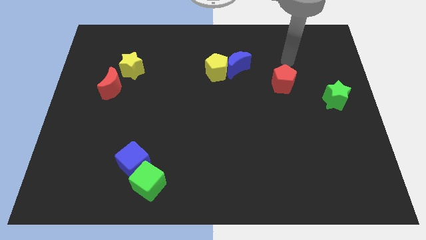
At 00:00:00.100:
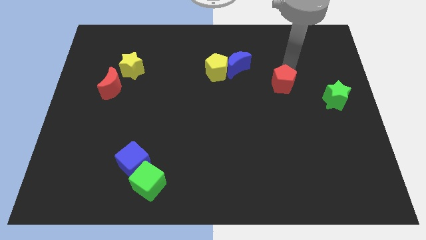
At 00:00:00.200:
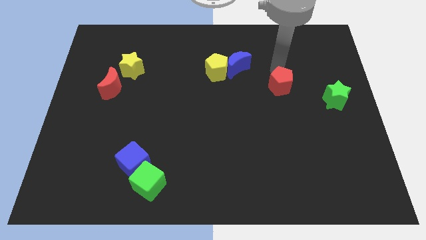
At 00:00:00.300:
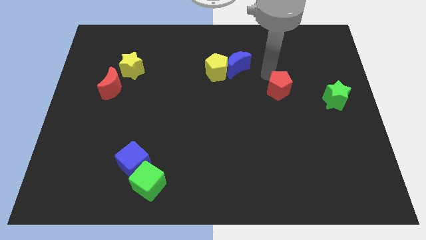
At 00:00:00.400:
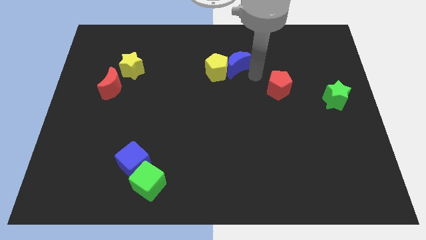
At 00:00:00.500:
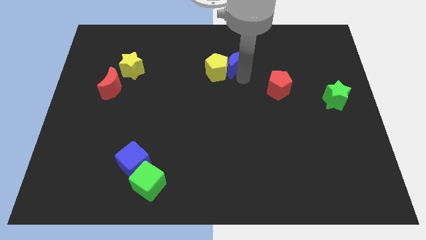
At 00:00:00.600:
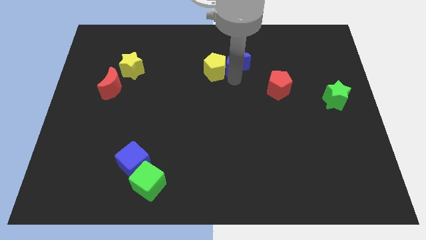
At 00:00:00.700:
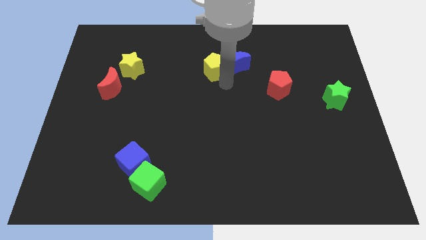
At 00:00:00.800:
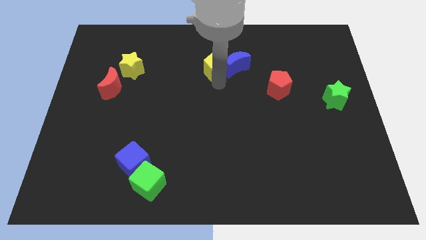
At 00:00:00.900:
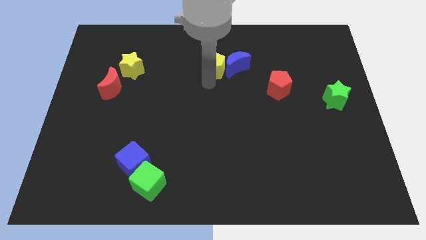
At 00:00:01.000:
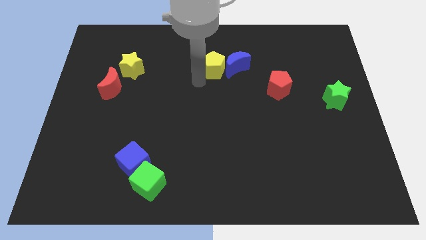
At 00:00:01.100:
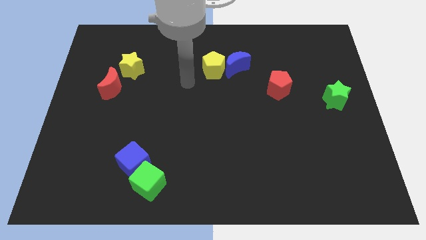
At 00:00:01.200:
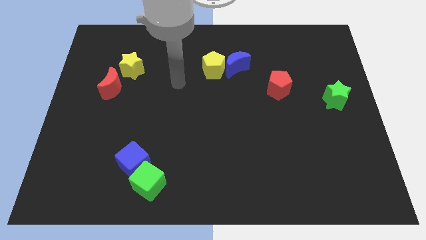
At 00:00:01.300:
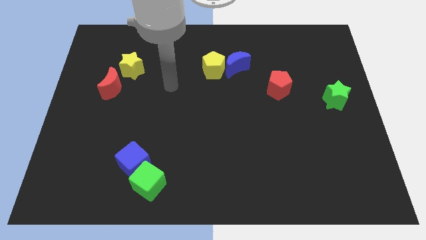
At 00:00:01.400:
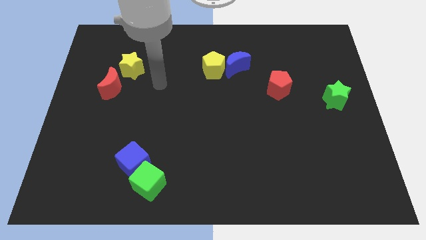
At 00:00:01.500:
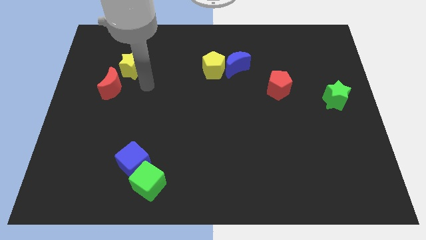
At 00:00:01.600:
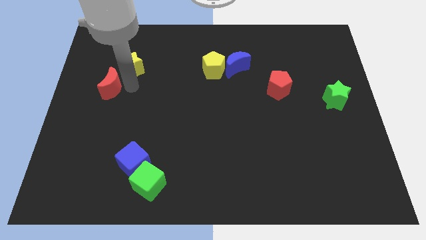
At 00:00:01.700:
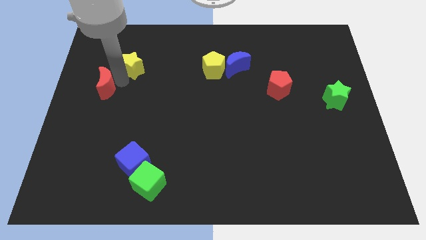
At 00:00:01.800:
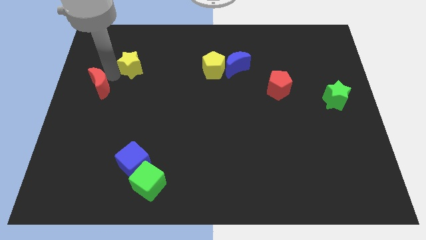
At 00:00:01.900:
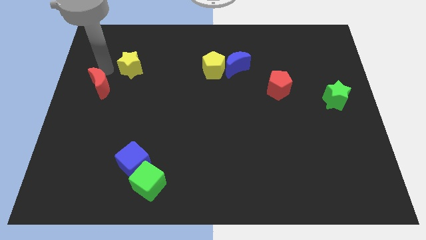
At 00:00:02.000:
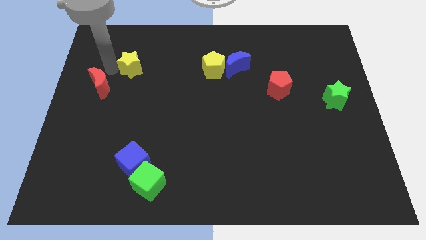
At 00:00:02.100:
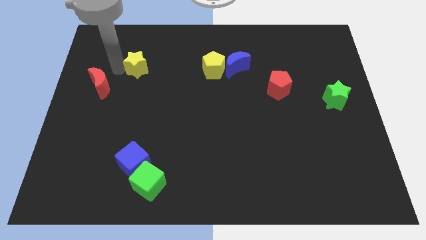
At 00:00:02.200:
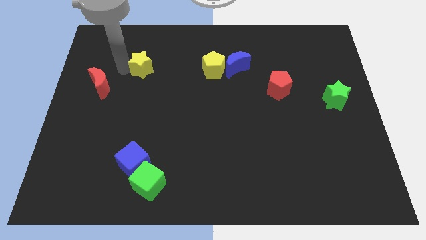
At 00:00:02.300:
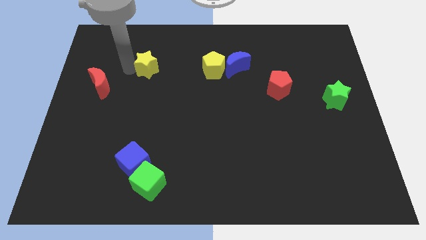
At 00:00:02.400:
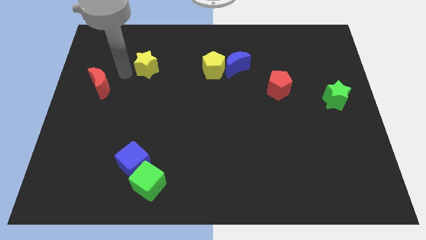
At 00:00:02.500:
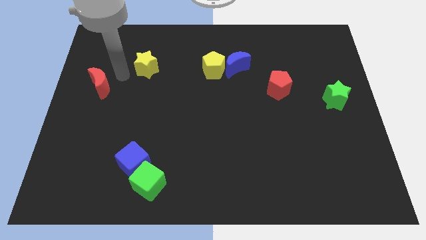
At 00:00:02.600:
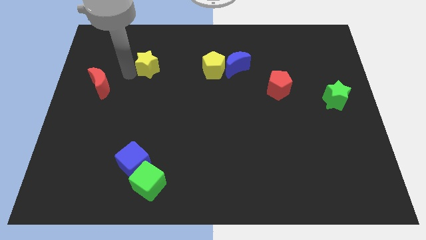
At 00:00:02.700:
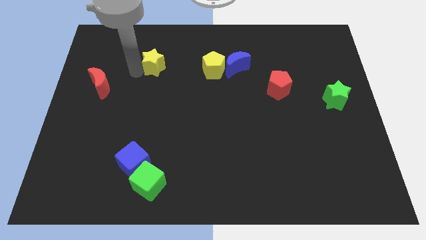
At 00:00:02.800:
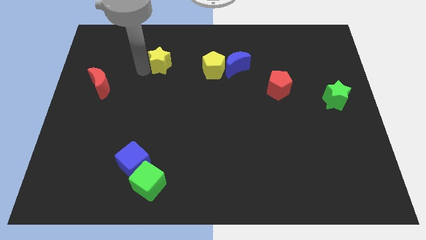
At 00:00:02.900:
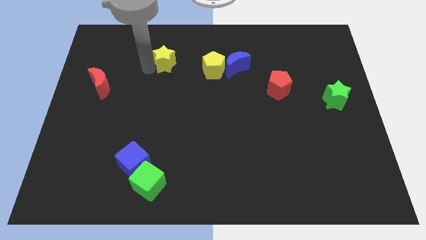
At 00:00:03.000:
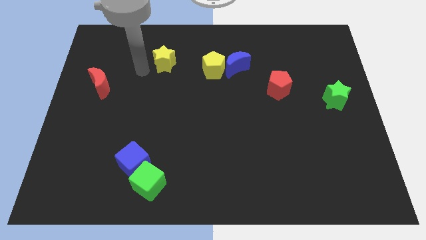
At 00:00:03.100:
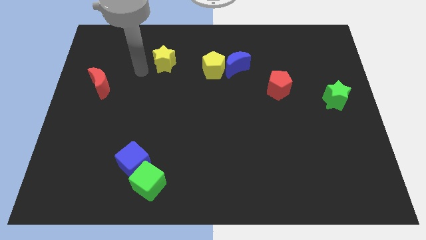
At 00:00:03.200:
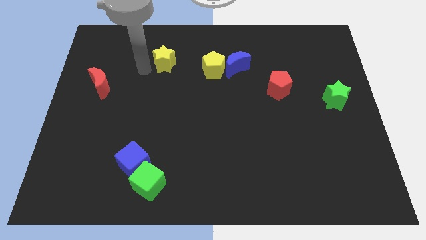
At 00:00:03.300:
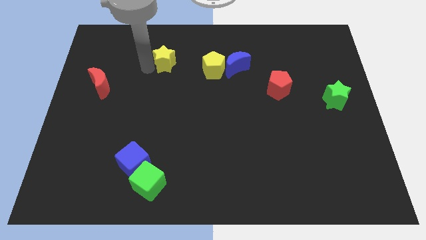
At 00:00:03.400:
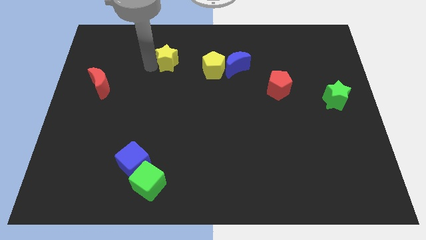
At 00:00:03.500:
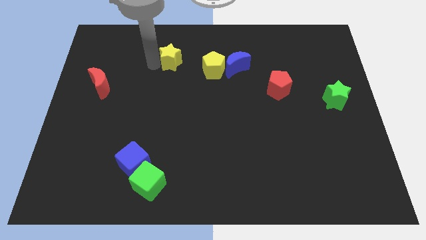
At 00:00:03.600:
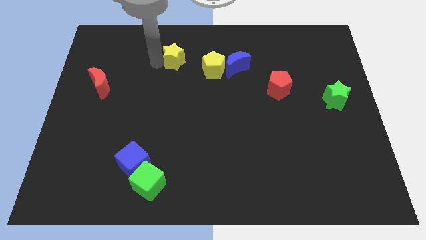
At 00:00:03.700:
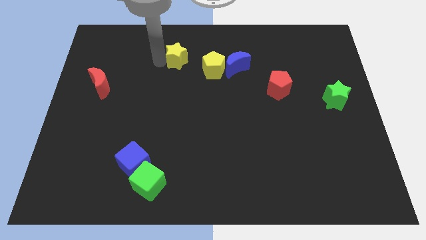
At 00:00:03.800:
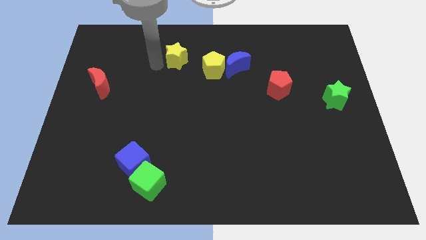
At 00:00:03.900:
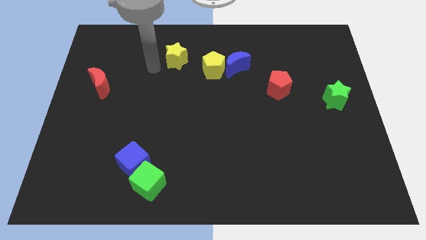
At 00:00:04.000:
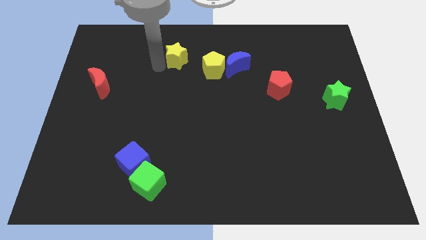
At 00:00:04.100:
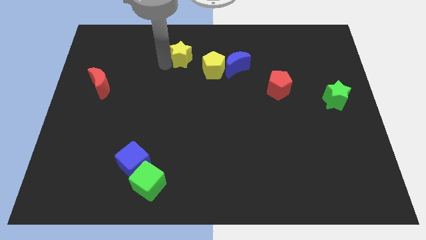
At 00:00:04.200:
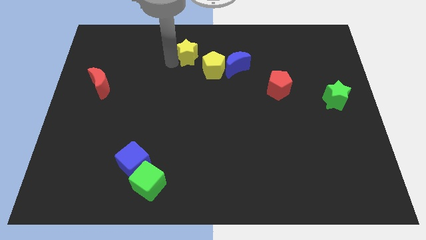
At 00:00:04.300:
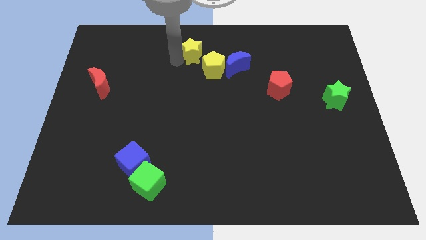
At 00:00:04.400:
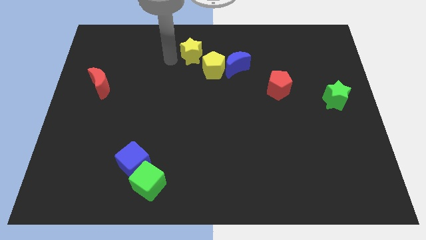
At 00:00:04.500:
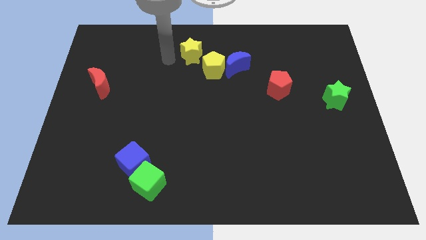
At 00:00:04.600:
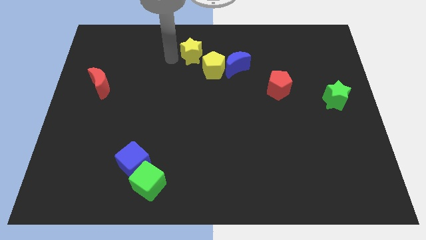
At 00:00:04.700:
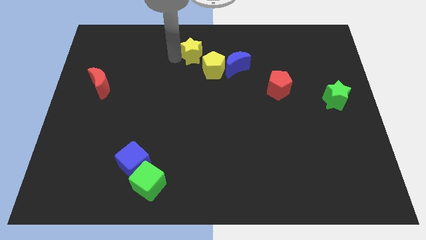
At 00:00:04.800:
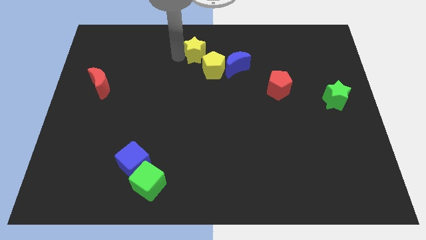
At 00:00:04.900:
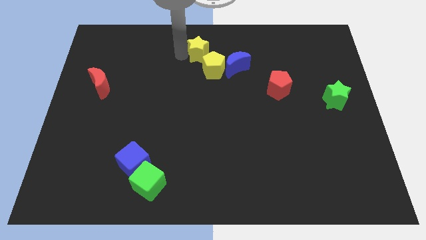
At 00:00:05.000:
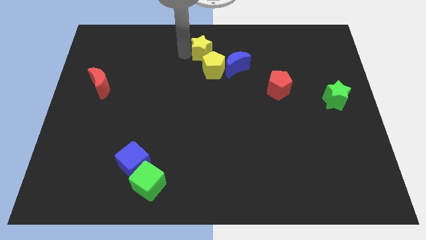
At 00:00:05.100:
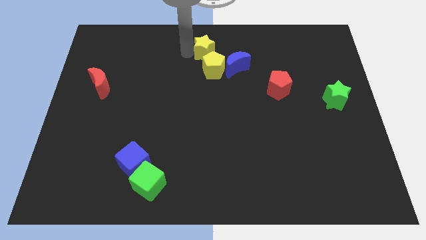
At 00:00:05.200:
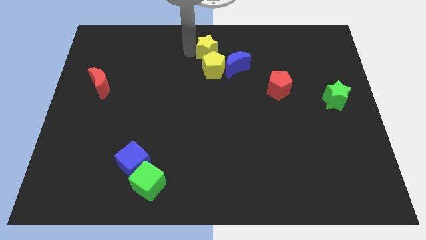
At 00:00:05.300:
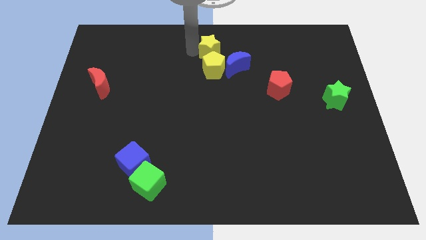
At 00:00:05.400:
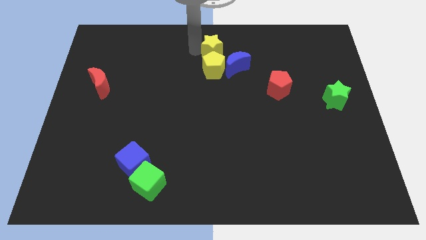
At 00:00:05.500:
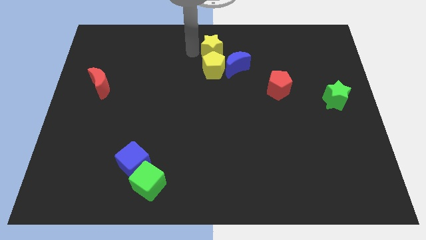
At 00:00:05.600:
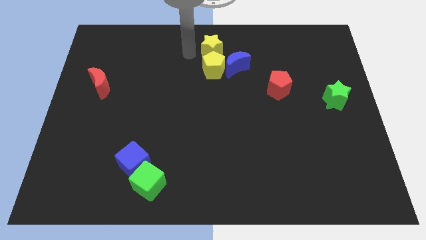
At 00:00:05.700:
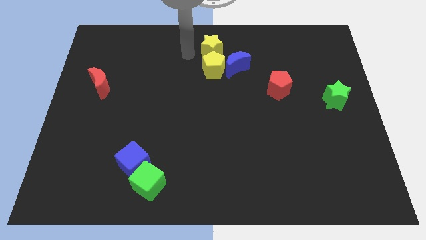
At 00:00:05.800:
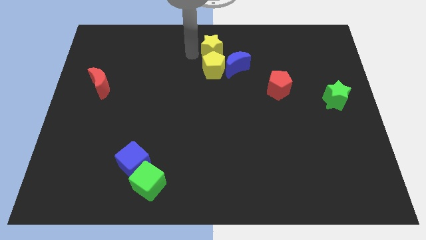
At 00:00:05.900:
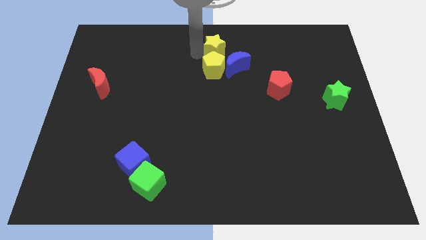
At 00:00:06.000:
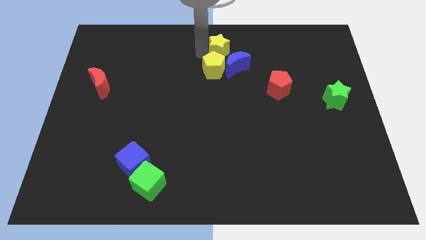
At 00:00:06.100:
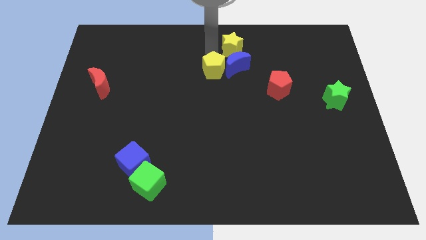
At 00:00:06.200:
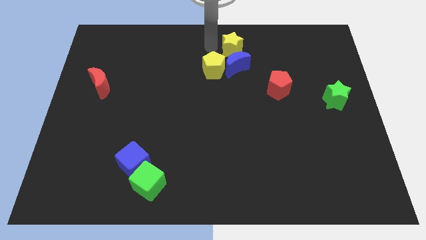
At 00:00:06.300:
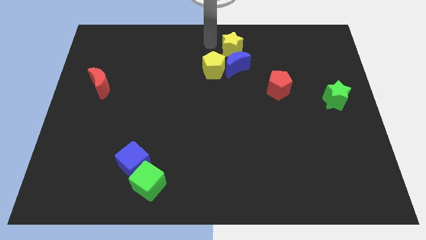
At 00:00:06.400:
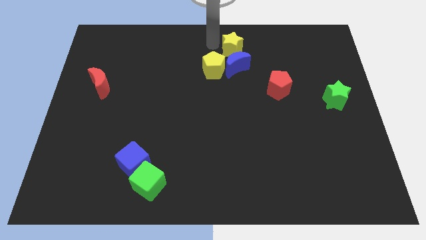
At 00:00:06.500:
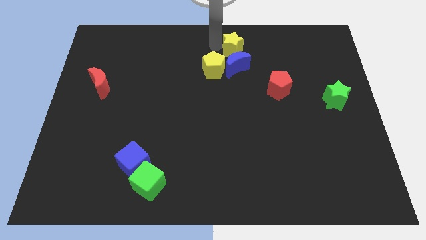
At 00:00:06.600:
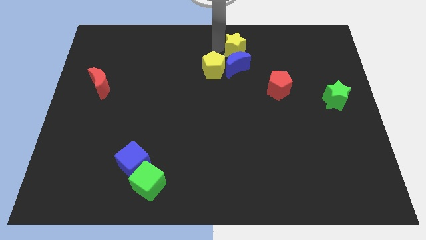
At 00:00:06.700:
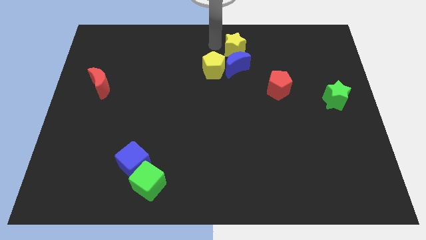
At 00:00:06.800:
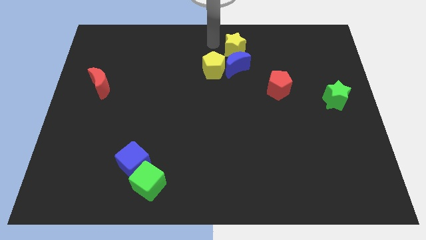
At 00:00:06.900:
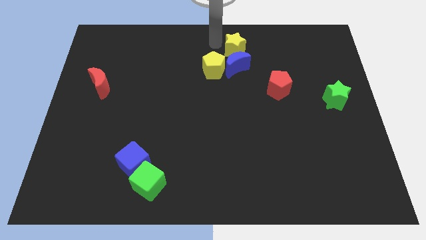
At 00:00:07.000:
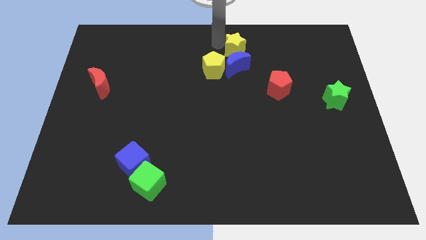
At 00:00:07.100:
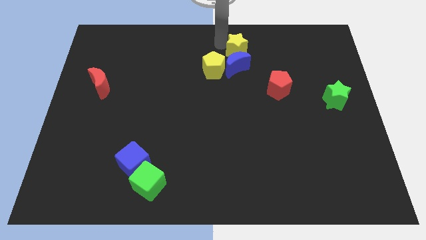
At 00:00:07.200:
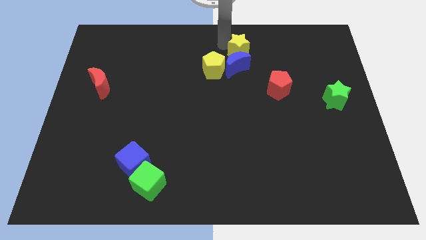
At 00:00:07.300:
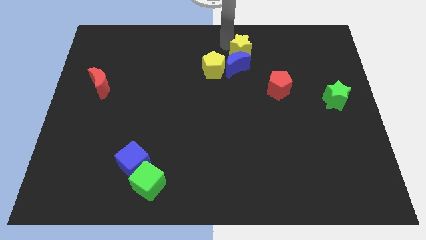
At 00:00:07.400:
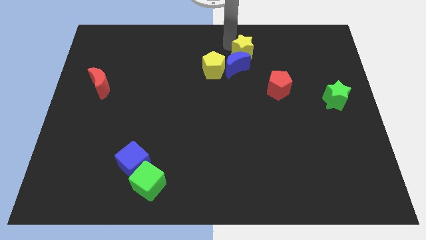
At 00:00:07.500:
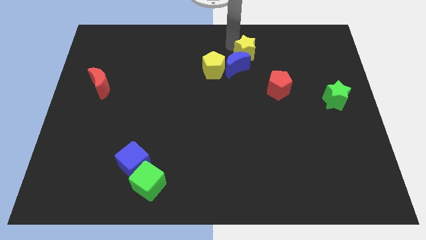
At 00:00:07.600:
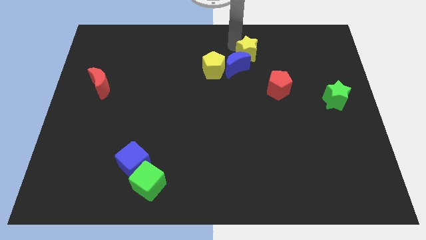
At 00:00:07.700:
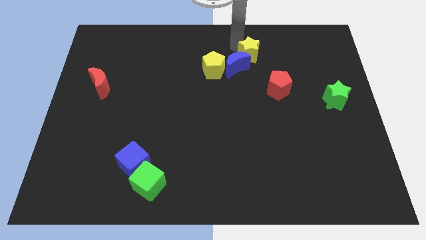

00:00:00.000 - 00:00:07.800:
put the yellow star right of the blue moon
